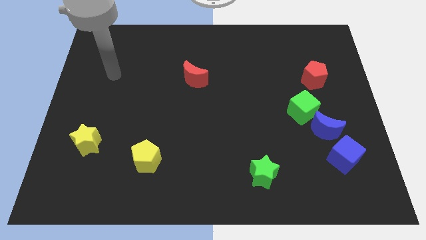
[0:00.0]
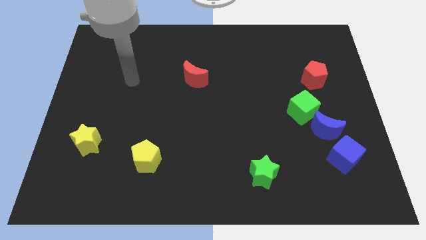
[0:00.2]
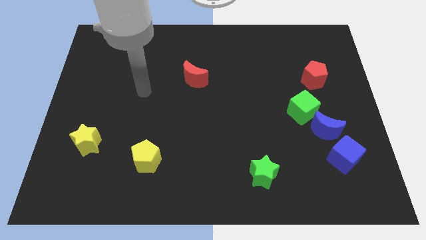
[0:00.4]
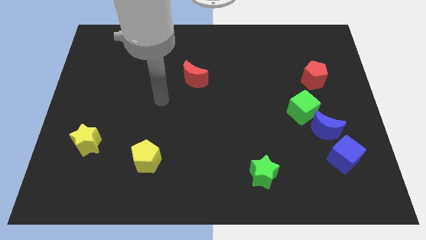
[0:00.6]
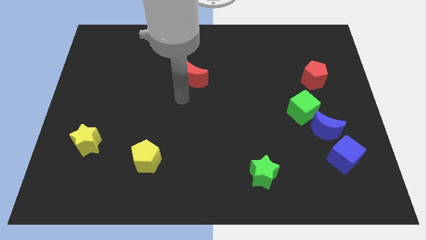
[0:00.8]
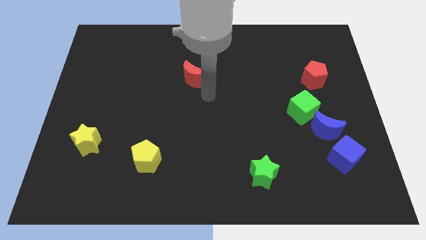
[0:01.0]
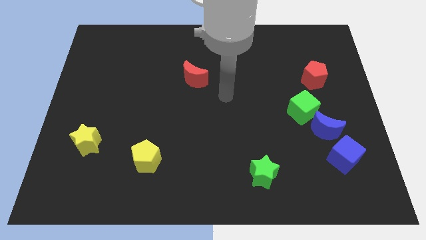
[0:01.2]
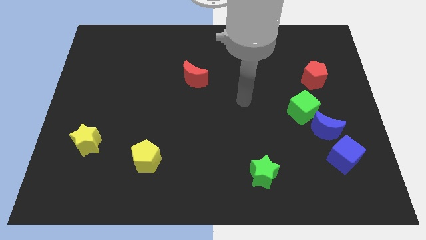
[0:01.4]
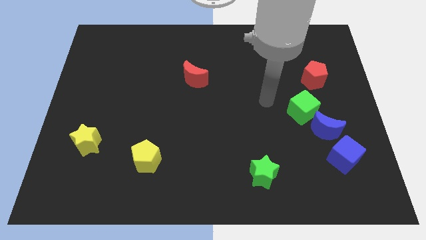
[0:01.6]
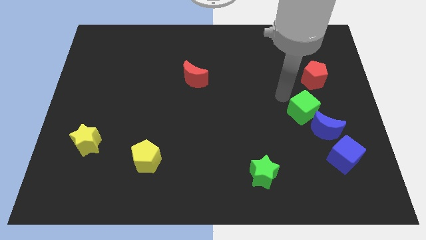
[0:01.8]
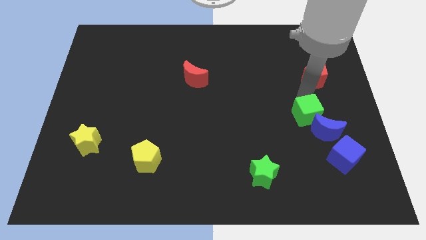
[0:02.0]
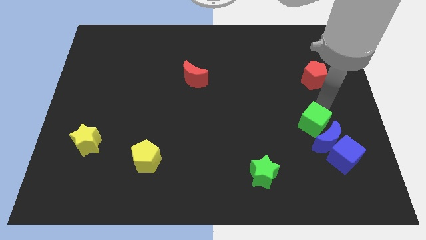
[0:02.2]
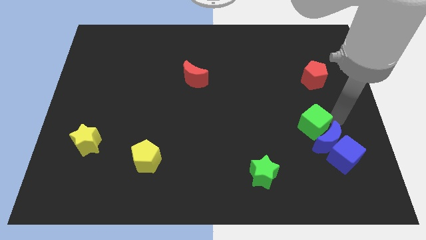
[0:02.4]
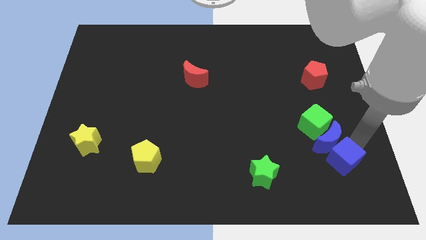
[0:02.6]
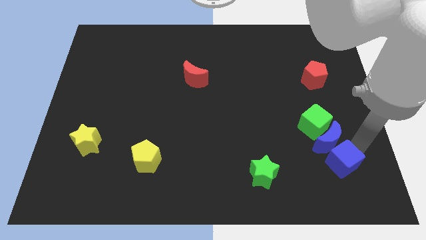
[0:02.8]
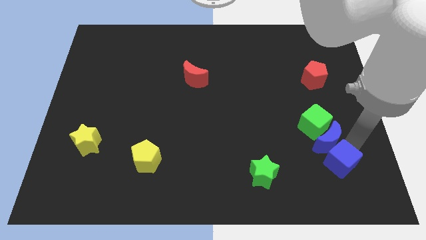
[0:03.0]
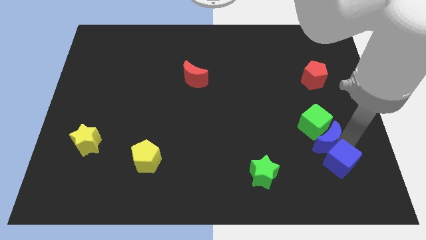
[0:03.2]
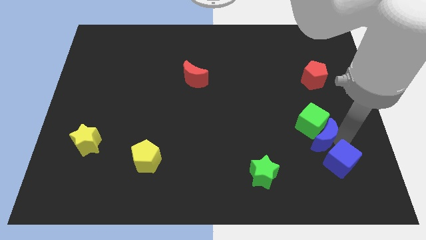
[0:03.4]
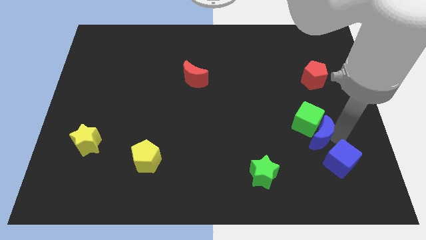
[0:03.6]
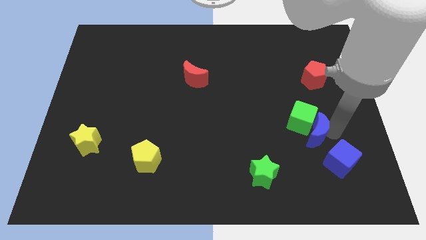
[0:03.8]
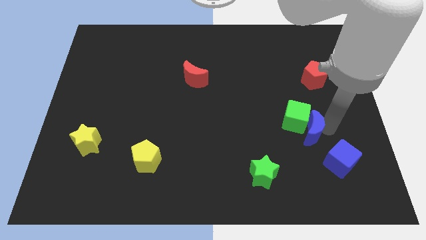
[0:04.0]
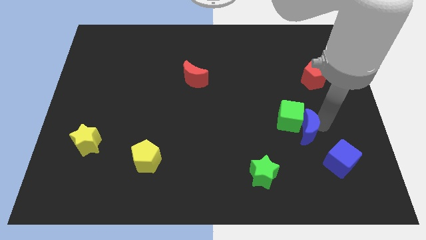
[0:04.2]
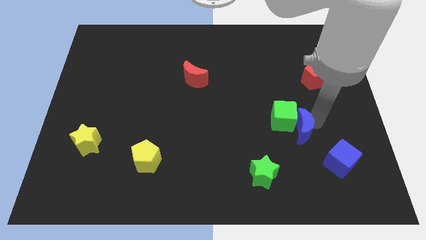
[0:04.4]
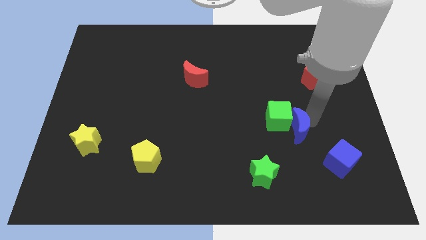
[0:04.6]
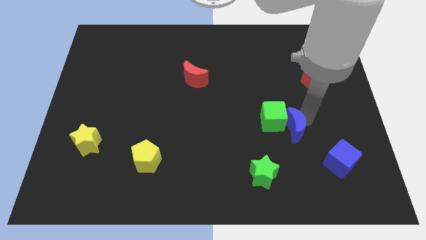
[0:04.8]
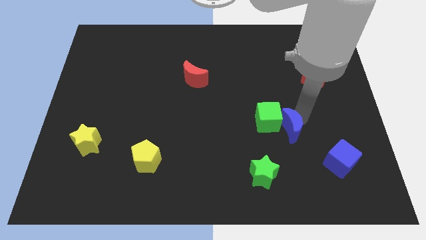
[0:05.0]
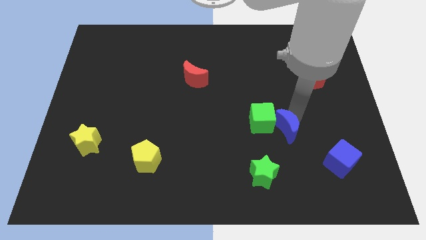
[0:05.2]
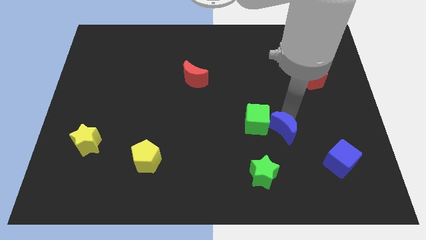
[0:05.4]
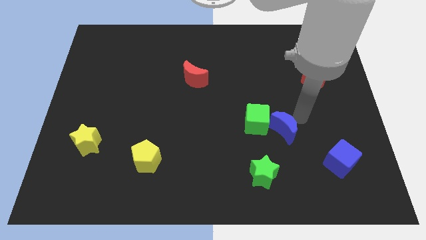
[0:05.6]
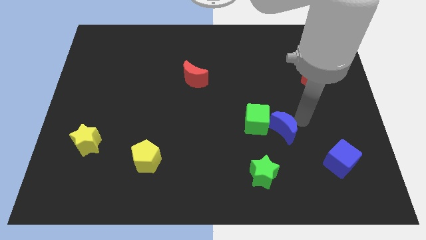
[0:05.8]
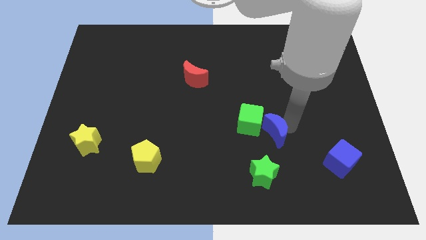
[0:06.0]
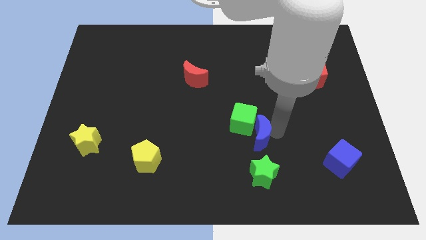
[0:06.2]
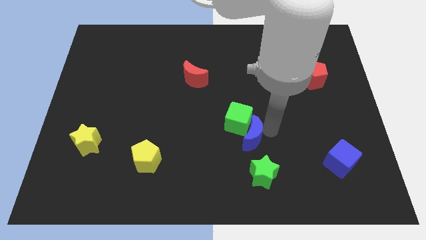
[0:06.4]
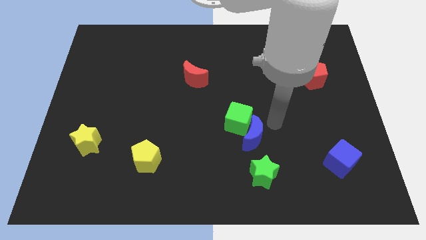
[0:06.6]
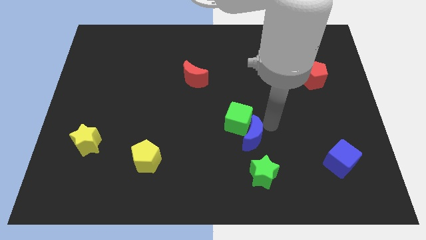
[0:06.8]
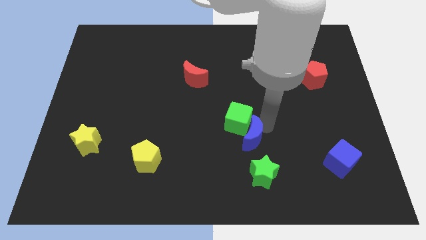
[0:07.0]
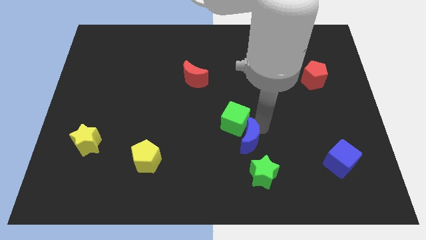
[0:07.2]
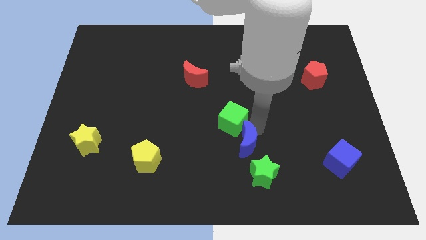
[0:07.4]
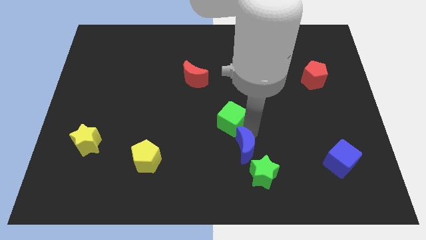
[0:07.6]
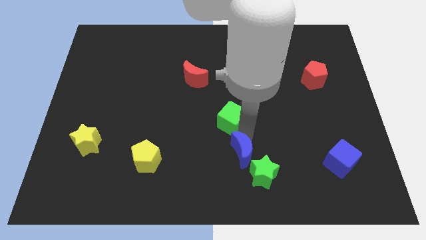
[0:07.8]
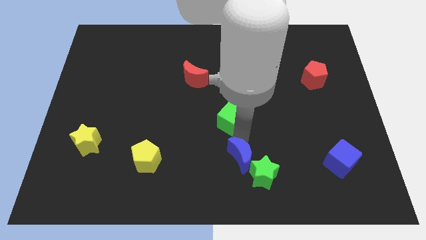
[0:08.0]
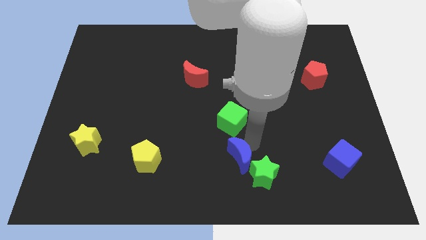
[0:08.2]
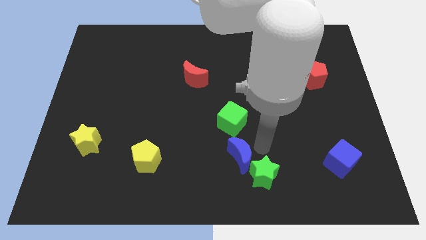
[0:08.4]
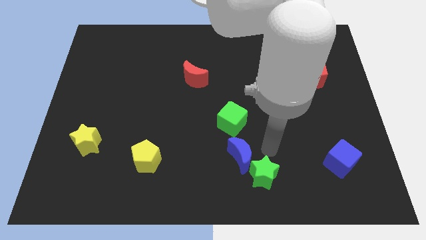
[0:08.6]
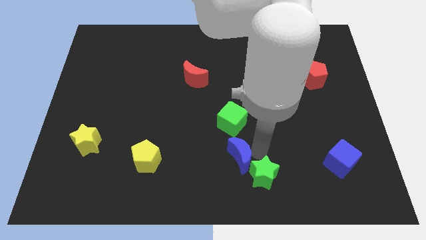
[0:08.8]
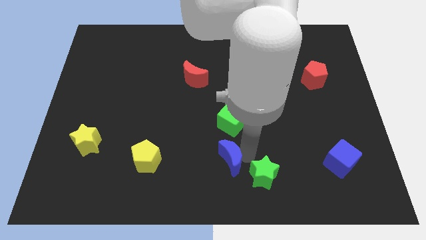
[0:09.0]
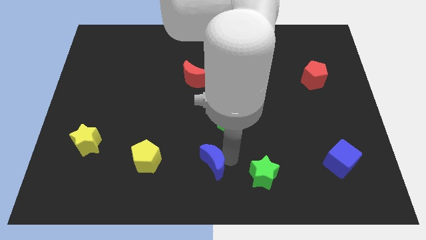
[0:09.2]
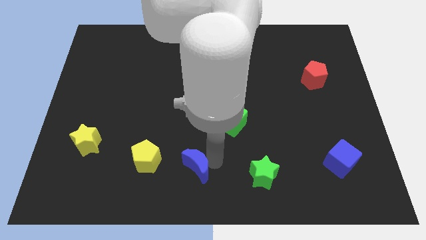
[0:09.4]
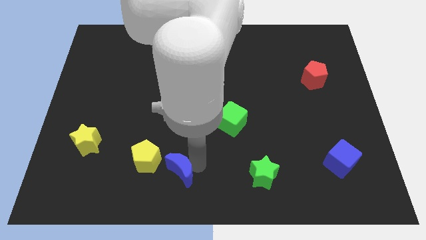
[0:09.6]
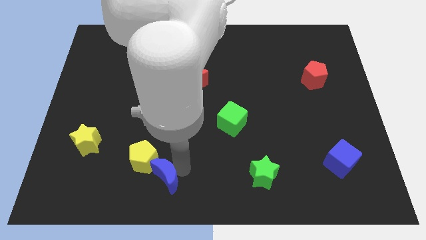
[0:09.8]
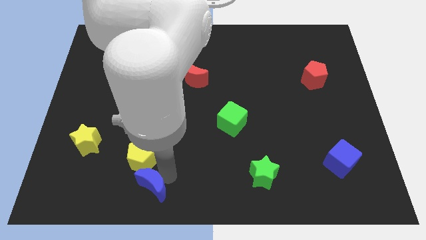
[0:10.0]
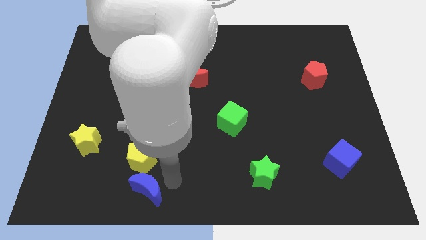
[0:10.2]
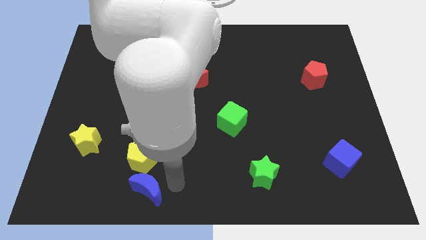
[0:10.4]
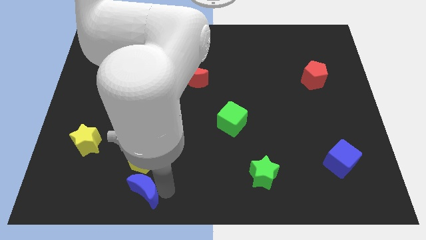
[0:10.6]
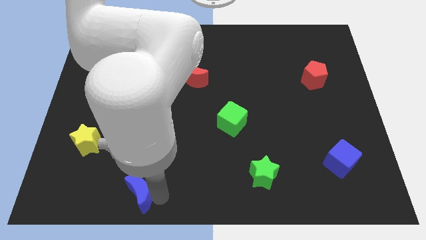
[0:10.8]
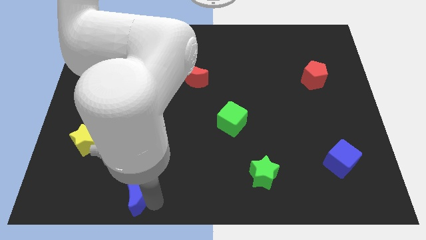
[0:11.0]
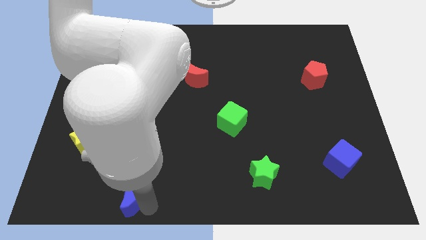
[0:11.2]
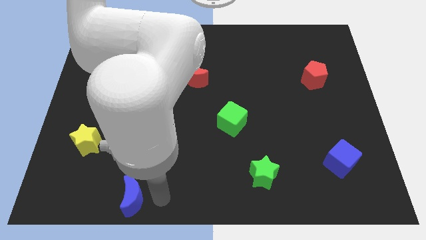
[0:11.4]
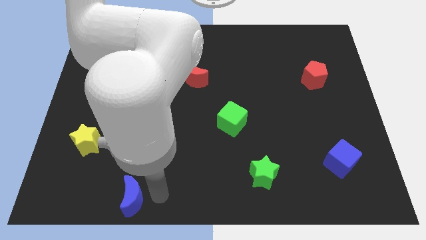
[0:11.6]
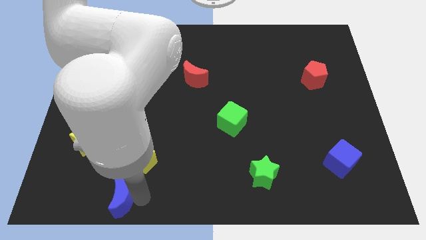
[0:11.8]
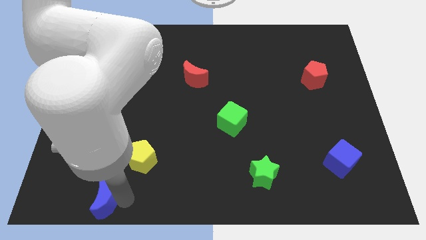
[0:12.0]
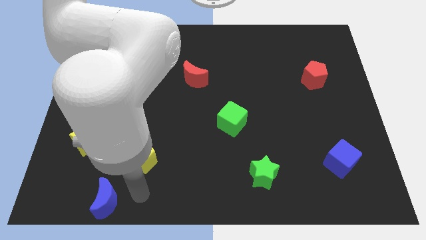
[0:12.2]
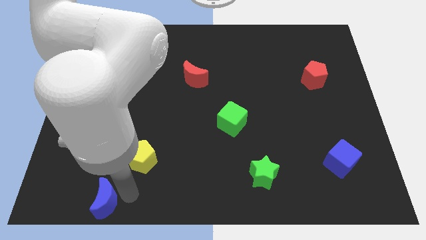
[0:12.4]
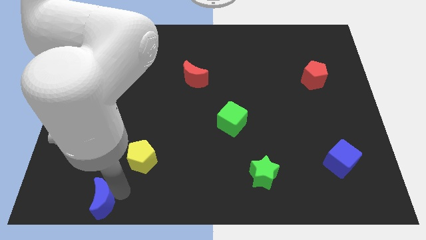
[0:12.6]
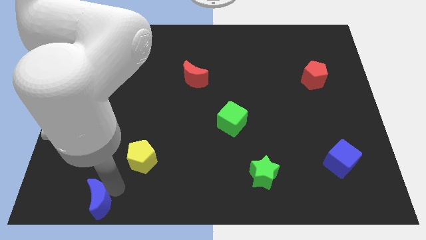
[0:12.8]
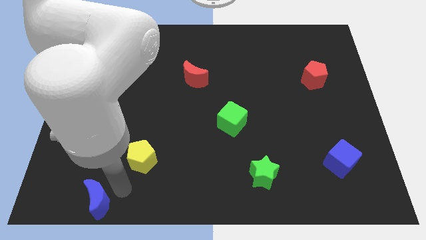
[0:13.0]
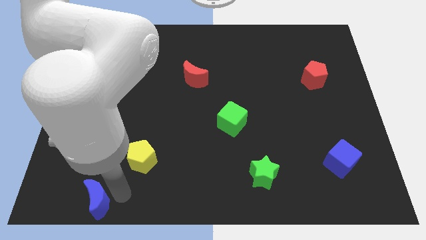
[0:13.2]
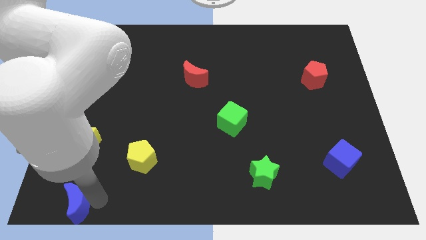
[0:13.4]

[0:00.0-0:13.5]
push the blue moon to the bottom left corner
